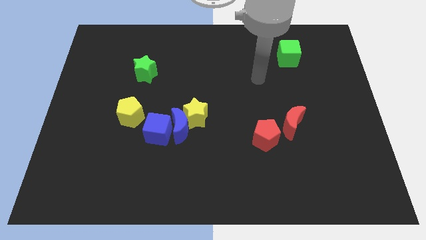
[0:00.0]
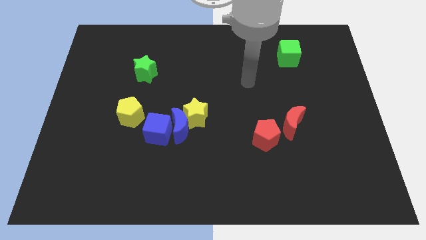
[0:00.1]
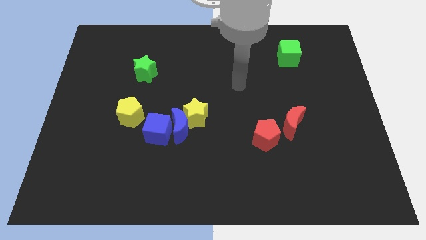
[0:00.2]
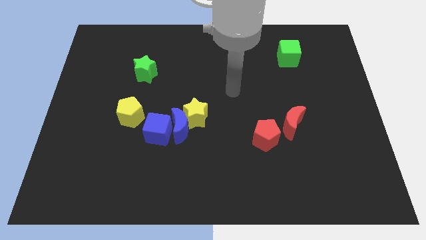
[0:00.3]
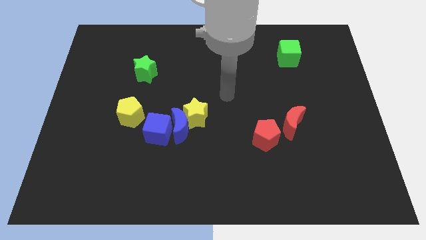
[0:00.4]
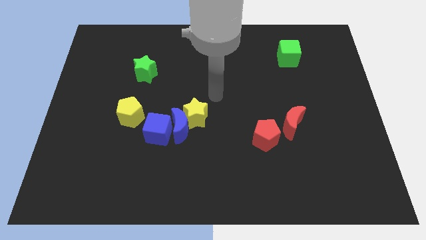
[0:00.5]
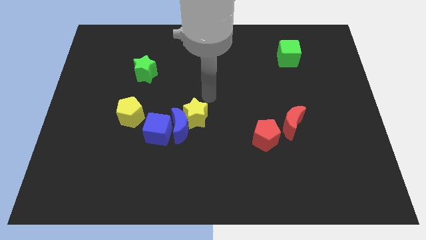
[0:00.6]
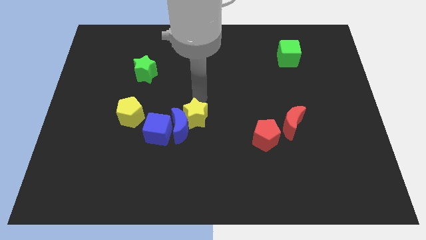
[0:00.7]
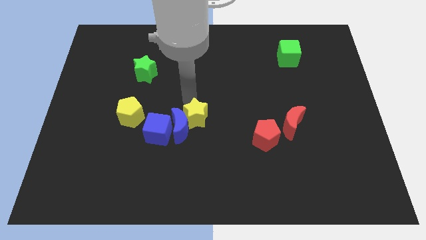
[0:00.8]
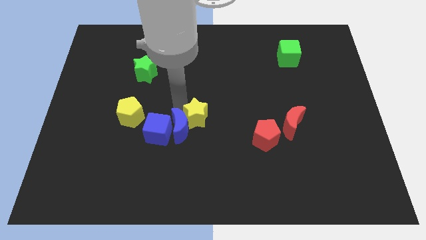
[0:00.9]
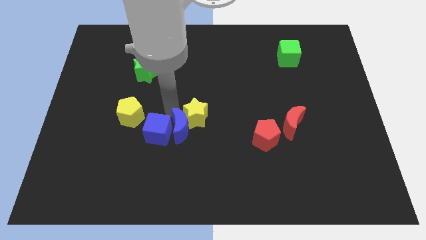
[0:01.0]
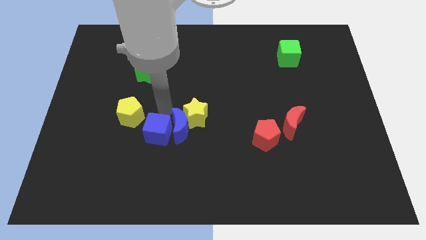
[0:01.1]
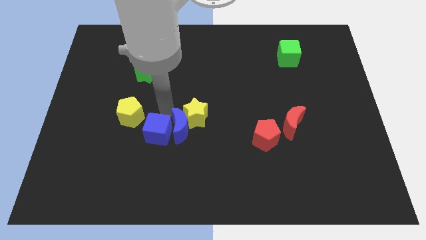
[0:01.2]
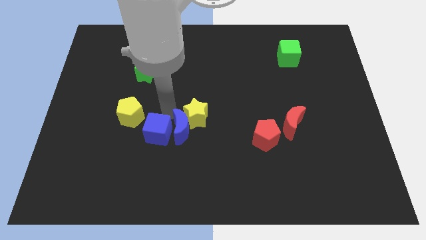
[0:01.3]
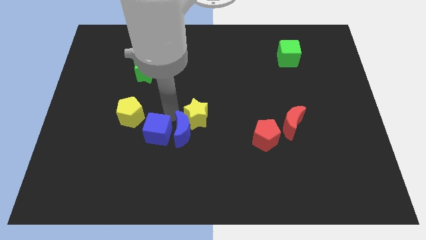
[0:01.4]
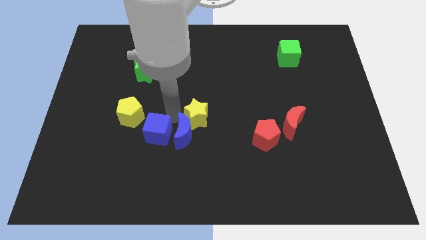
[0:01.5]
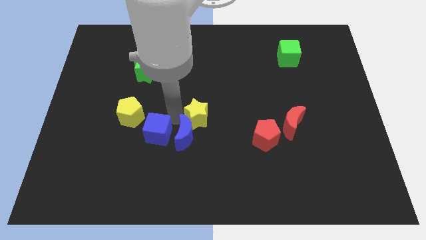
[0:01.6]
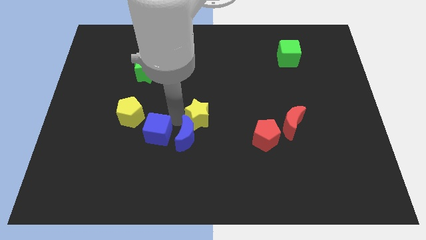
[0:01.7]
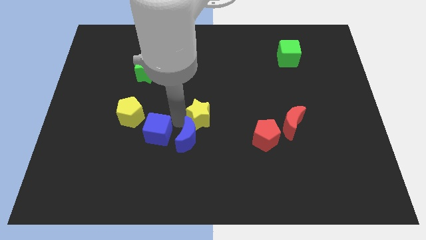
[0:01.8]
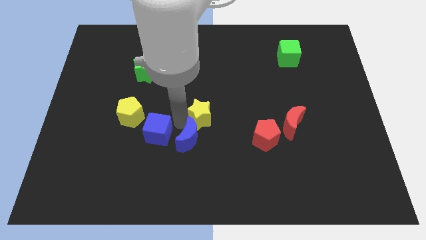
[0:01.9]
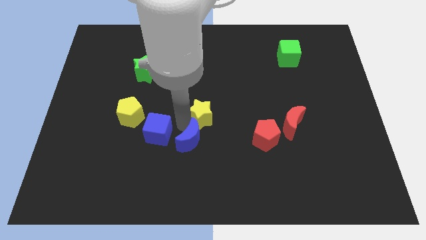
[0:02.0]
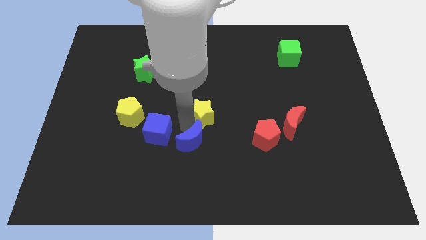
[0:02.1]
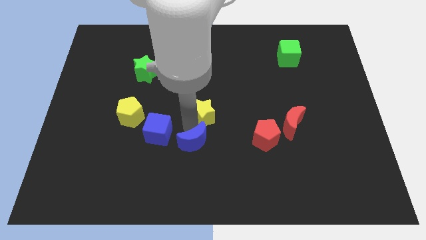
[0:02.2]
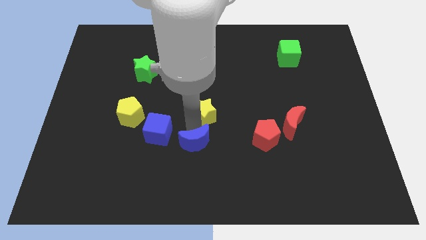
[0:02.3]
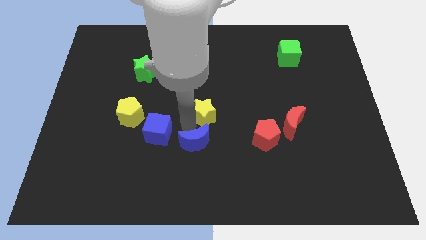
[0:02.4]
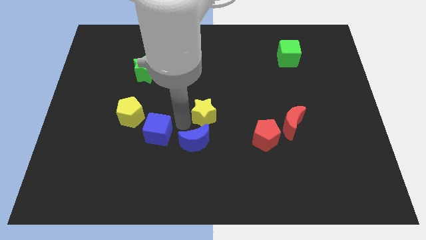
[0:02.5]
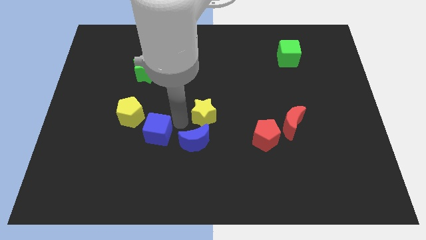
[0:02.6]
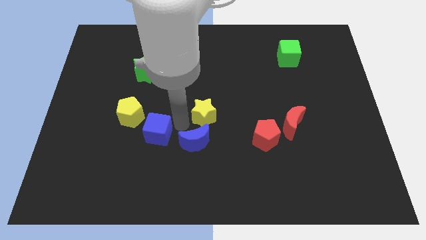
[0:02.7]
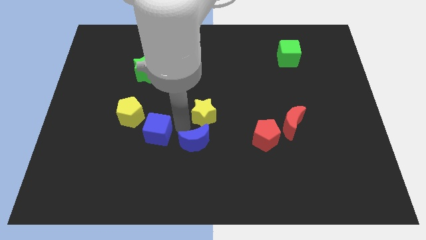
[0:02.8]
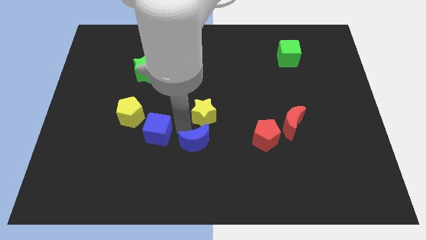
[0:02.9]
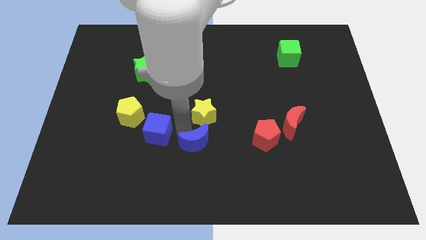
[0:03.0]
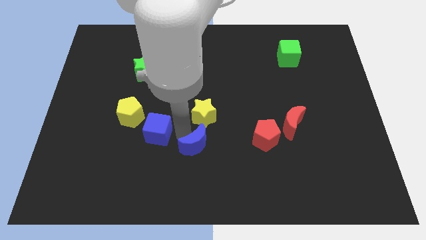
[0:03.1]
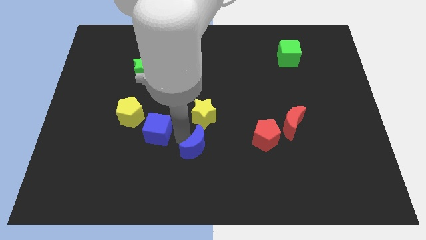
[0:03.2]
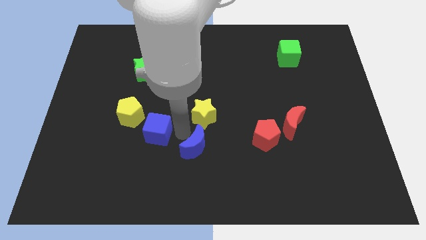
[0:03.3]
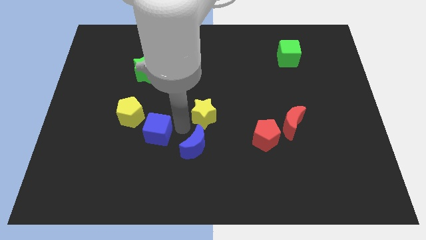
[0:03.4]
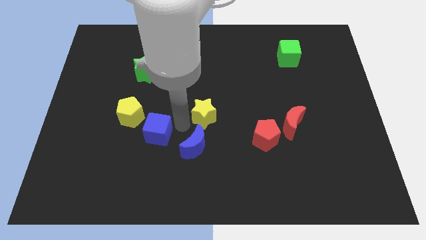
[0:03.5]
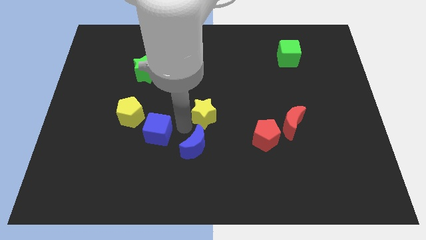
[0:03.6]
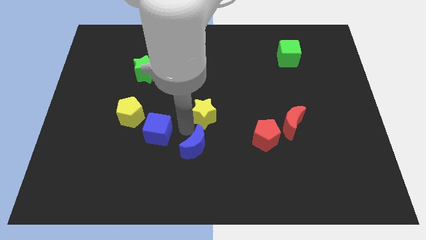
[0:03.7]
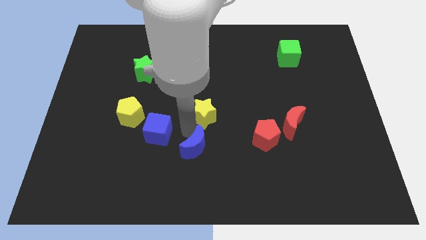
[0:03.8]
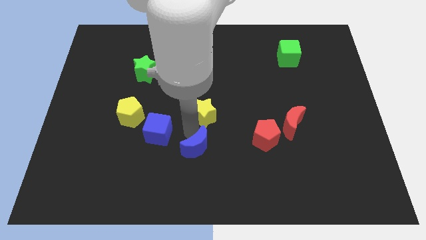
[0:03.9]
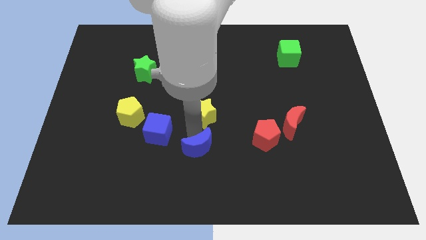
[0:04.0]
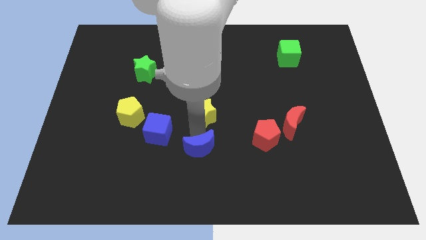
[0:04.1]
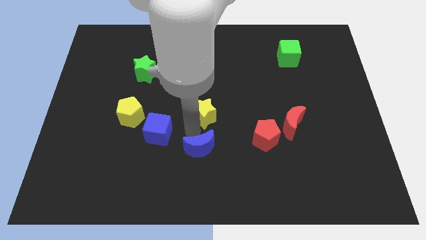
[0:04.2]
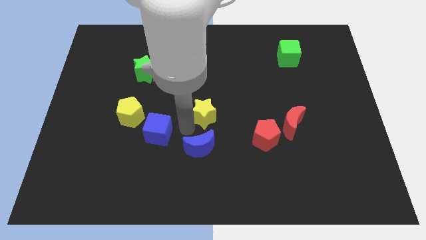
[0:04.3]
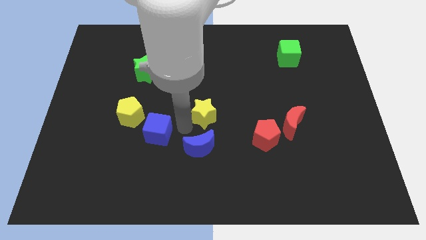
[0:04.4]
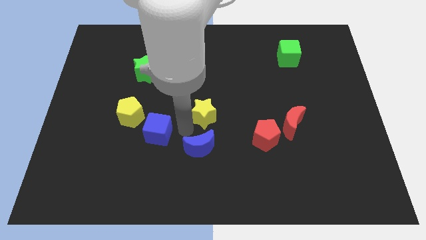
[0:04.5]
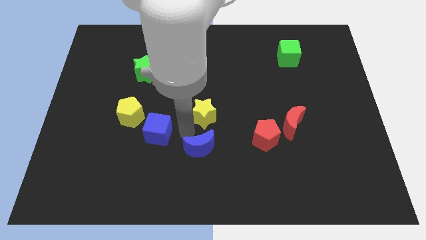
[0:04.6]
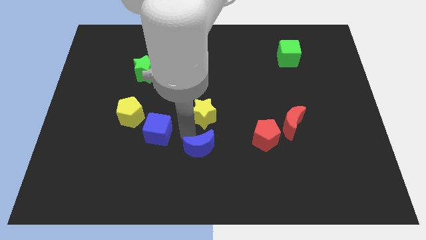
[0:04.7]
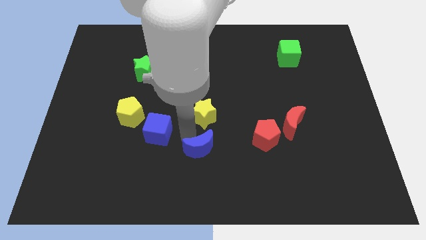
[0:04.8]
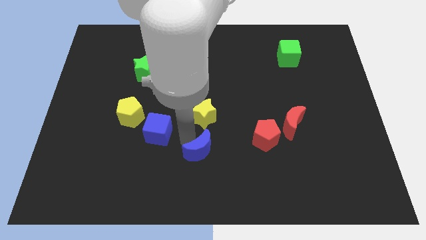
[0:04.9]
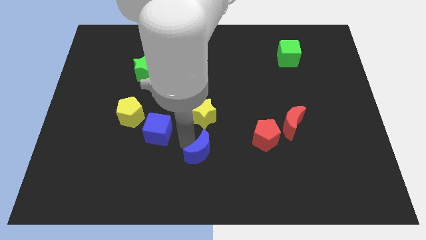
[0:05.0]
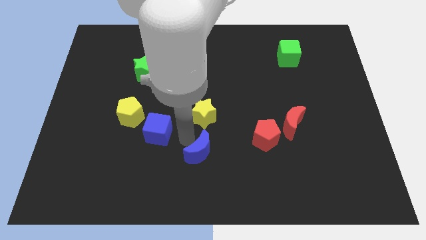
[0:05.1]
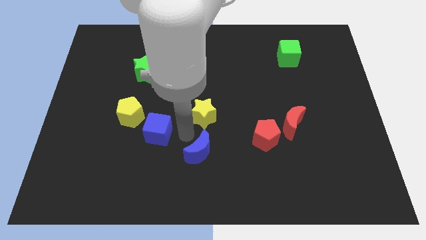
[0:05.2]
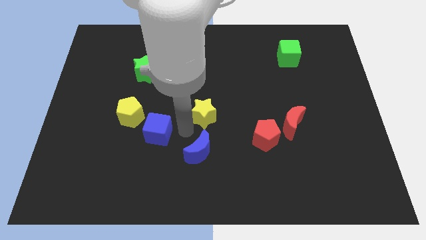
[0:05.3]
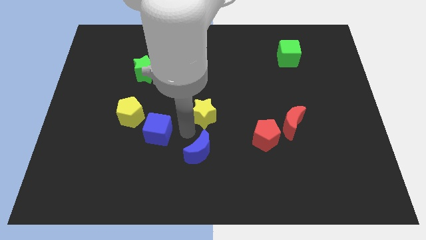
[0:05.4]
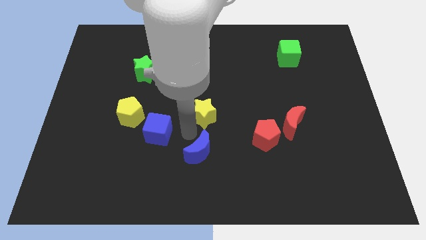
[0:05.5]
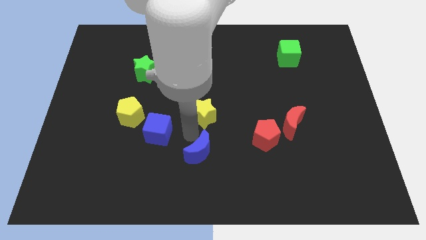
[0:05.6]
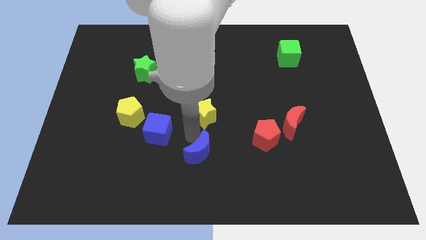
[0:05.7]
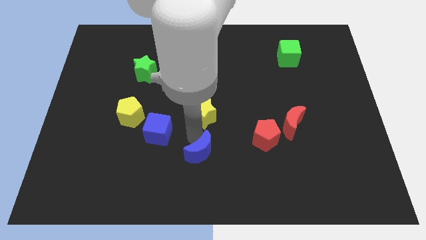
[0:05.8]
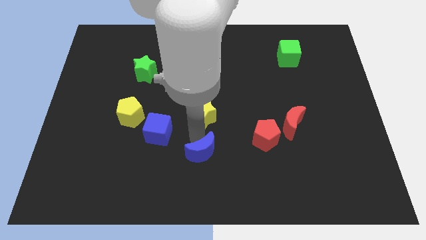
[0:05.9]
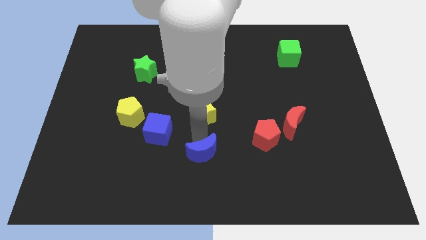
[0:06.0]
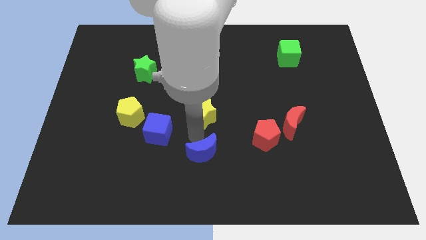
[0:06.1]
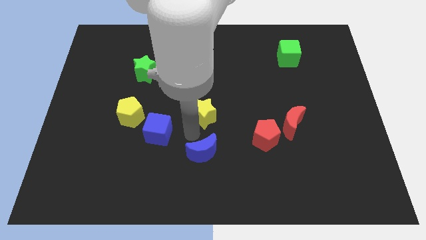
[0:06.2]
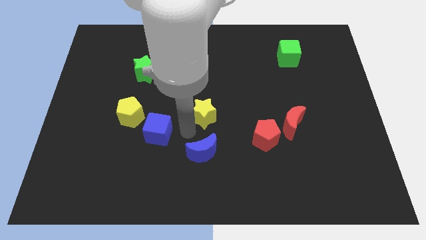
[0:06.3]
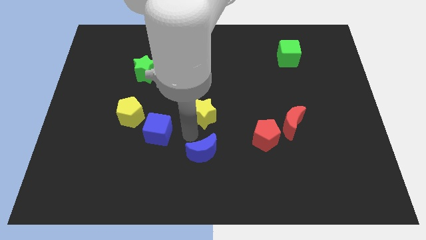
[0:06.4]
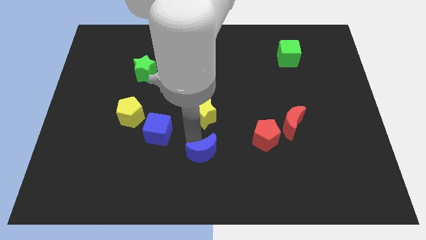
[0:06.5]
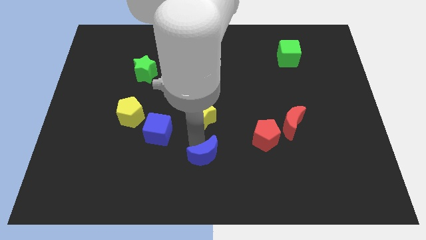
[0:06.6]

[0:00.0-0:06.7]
move the blue moon away from the yellow star and blue cube

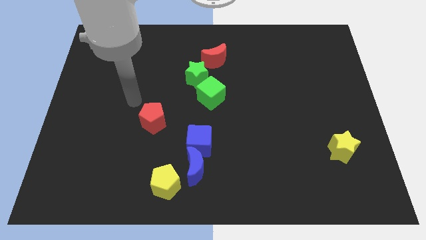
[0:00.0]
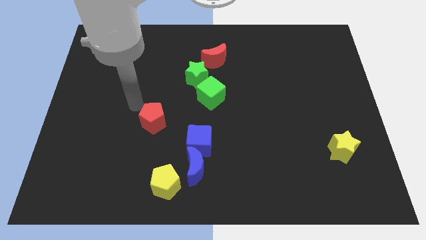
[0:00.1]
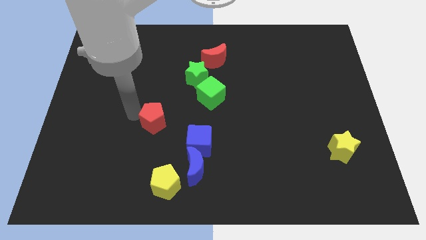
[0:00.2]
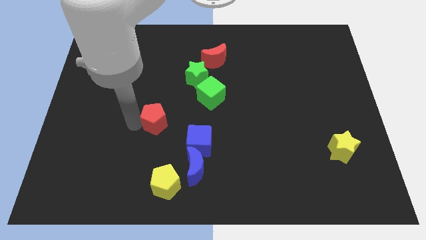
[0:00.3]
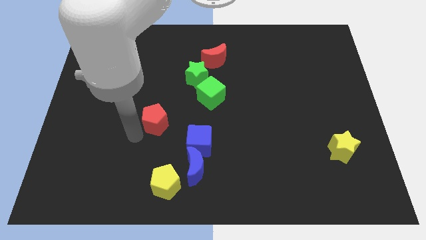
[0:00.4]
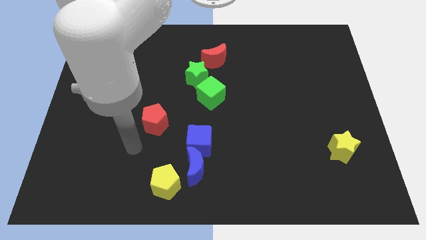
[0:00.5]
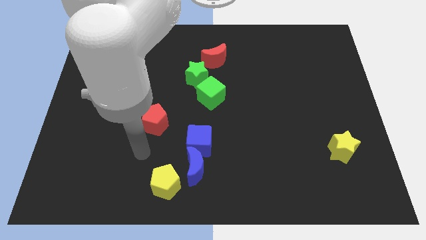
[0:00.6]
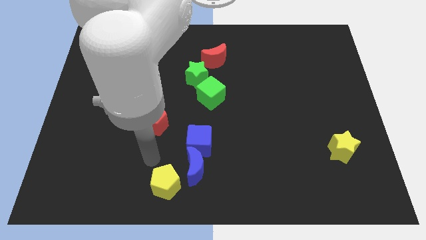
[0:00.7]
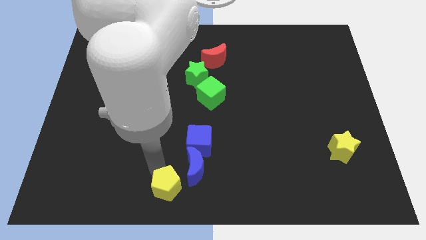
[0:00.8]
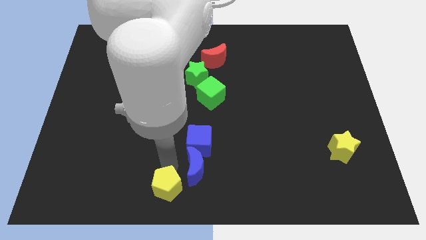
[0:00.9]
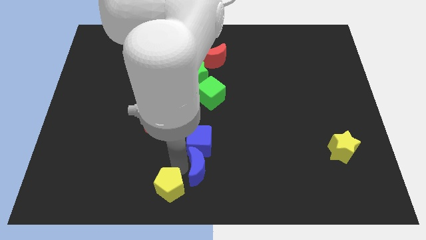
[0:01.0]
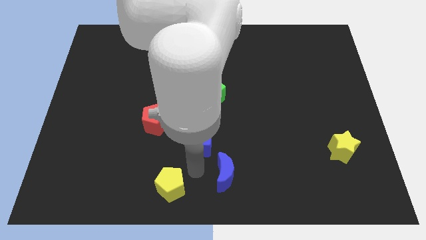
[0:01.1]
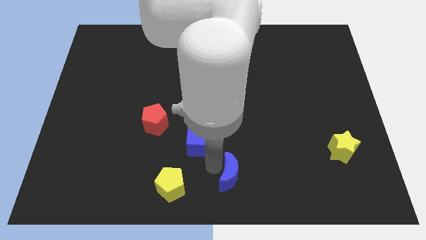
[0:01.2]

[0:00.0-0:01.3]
move the blue cube away from the blue moon

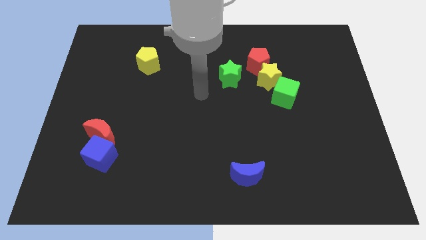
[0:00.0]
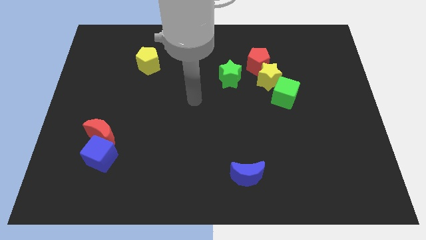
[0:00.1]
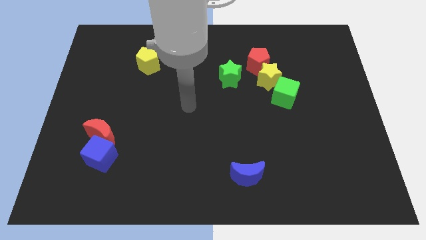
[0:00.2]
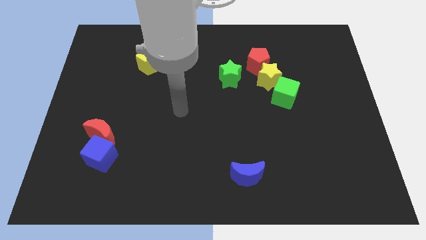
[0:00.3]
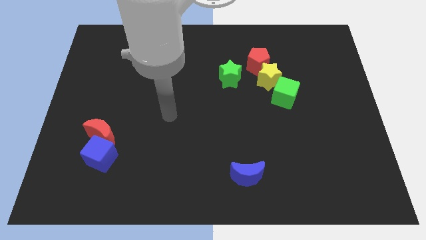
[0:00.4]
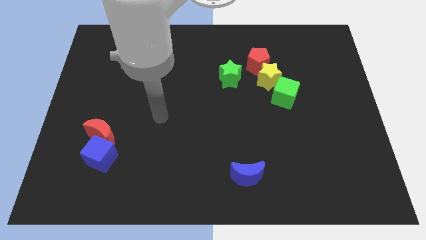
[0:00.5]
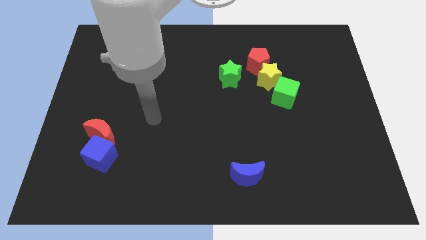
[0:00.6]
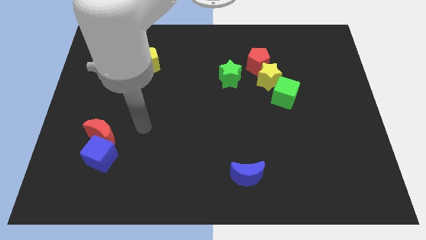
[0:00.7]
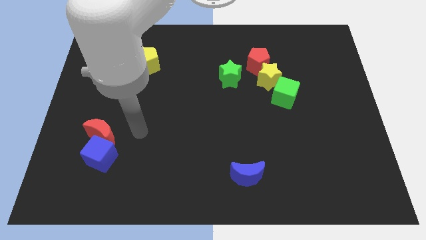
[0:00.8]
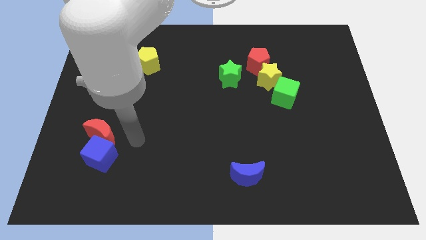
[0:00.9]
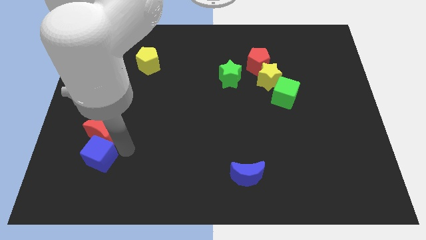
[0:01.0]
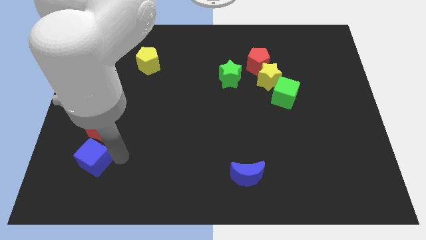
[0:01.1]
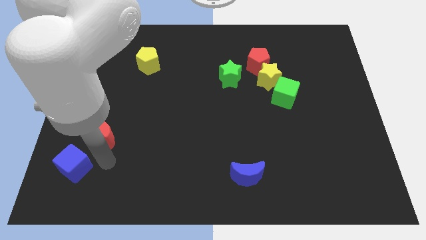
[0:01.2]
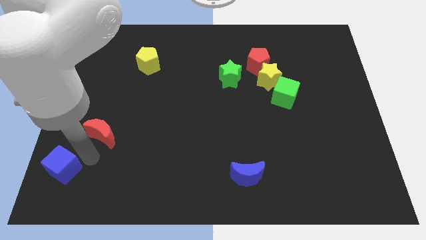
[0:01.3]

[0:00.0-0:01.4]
move the red moon away from the blue cube
